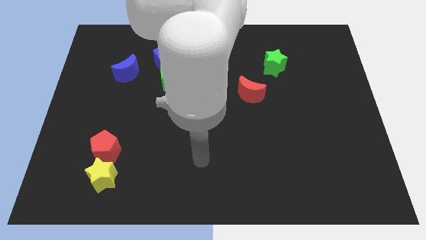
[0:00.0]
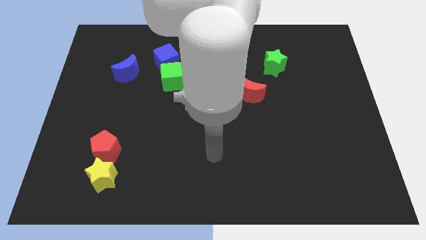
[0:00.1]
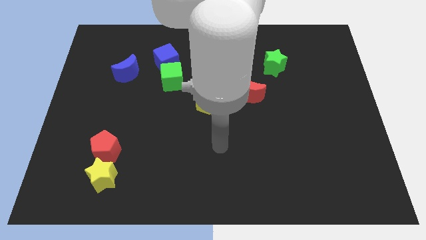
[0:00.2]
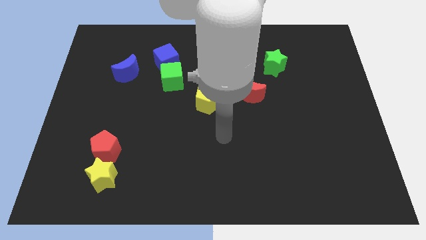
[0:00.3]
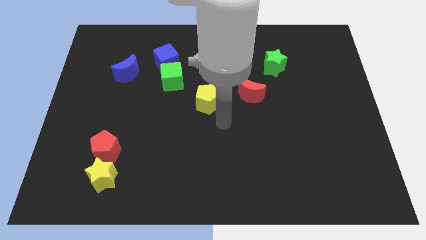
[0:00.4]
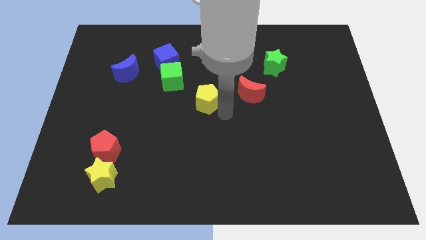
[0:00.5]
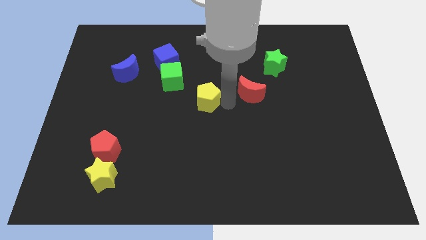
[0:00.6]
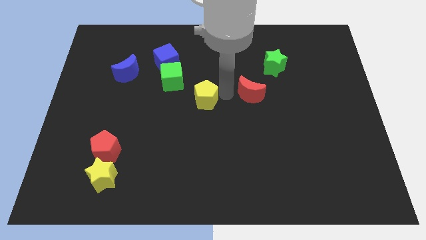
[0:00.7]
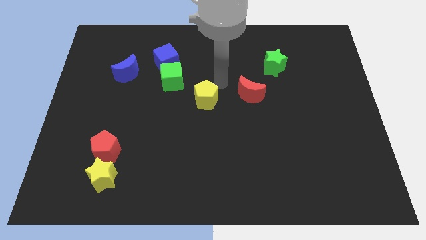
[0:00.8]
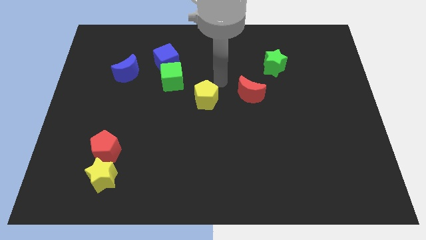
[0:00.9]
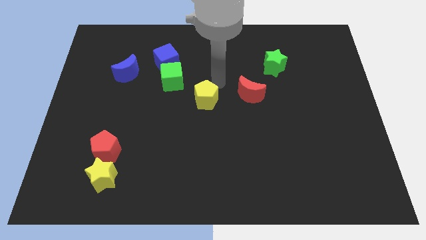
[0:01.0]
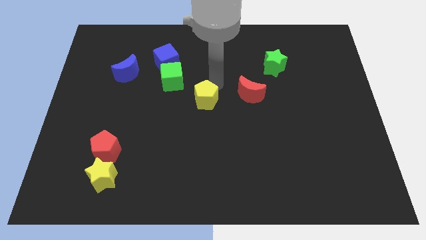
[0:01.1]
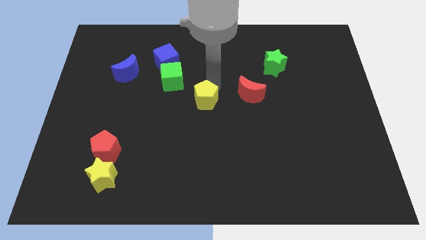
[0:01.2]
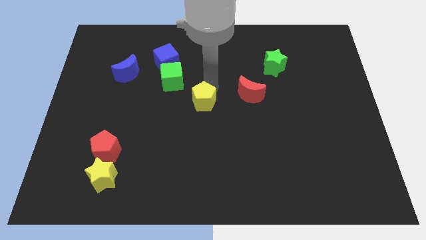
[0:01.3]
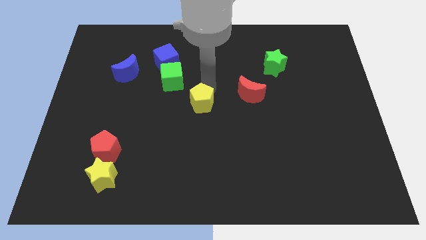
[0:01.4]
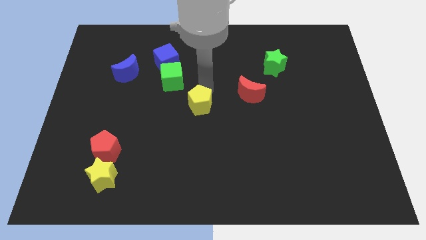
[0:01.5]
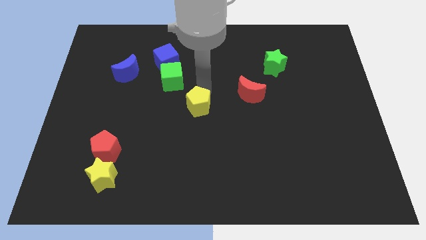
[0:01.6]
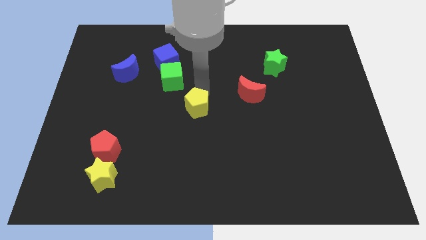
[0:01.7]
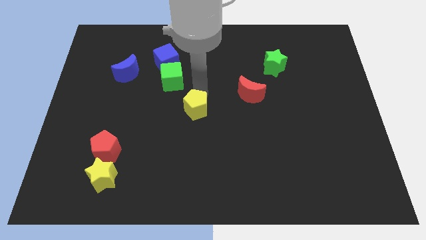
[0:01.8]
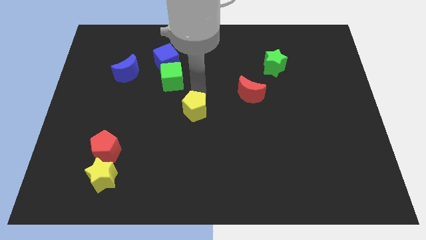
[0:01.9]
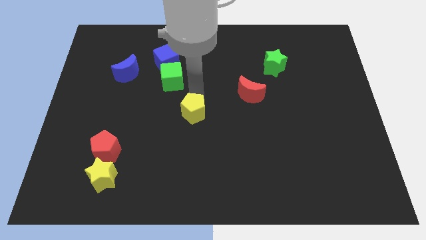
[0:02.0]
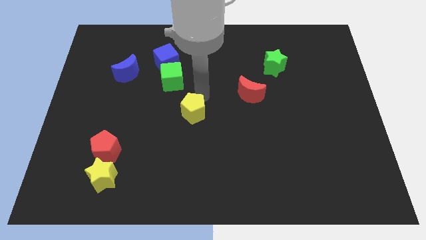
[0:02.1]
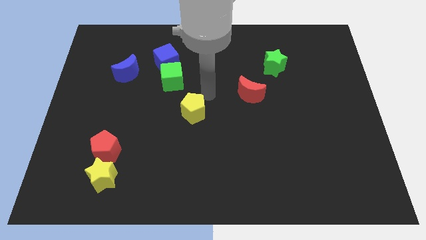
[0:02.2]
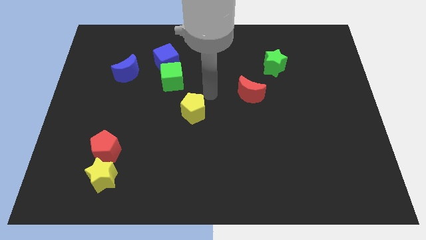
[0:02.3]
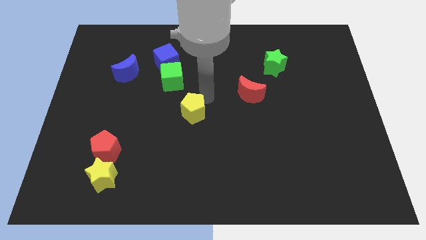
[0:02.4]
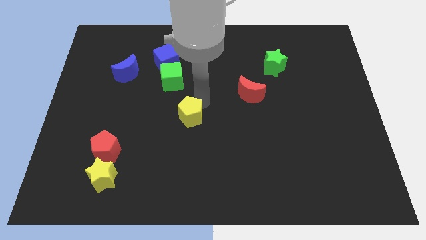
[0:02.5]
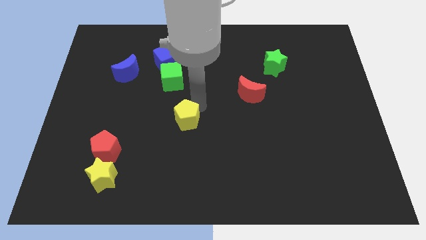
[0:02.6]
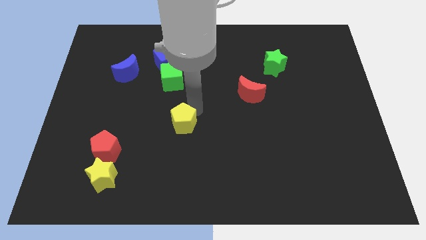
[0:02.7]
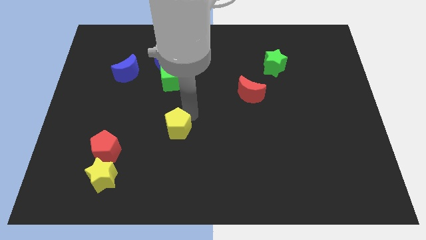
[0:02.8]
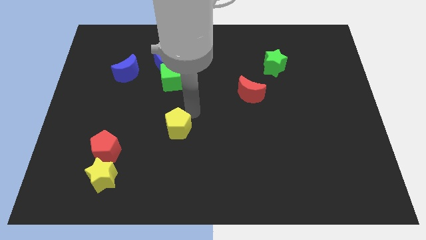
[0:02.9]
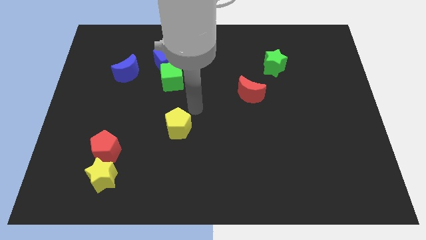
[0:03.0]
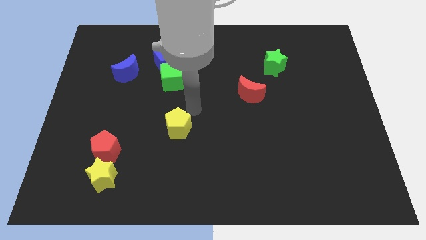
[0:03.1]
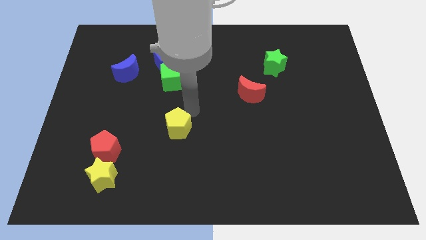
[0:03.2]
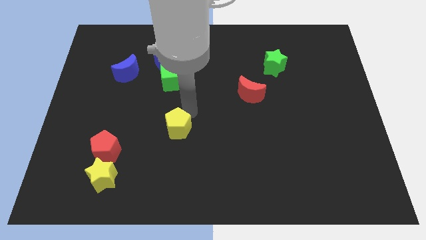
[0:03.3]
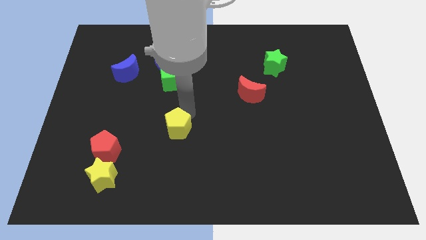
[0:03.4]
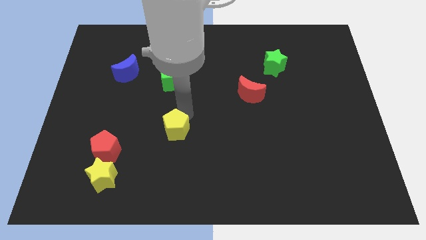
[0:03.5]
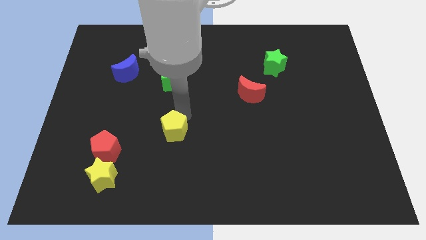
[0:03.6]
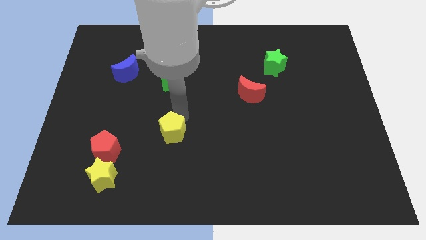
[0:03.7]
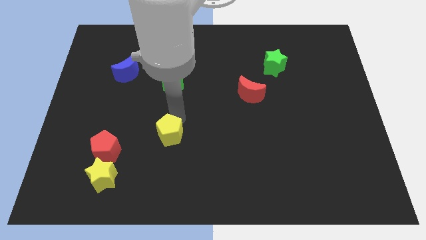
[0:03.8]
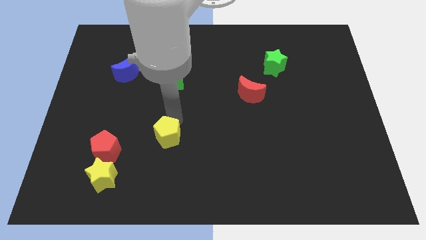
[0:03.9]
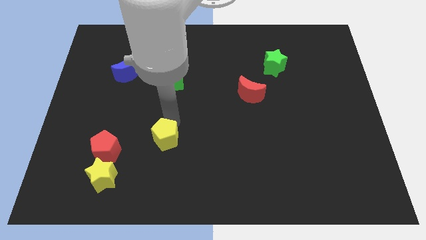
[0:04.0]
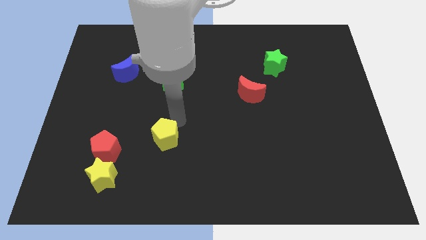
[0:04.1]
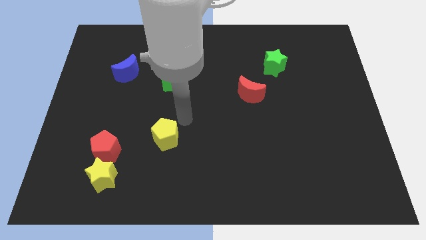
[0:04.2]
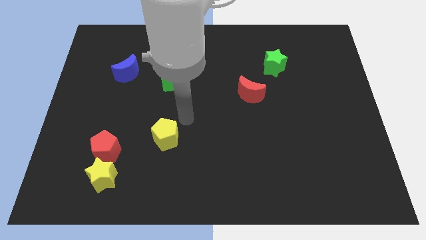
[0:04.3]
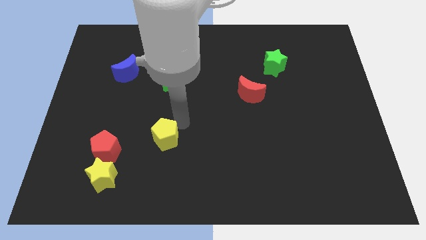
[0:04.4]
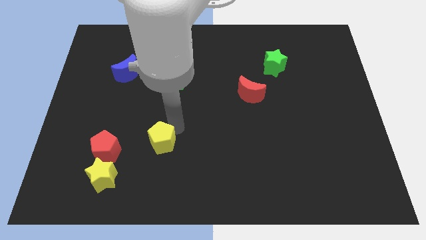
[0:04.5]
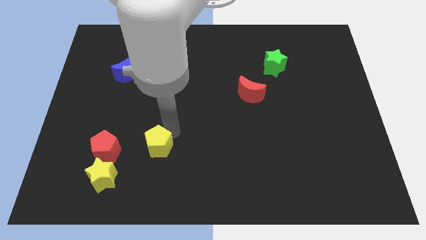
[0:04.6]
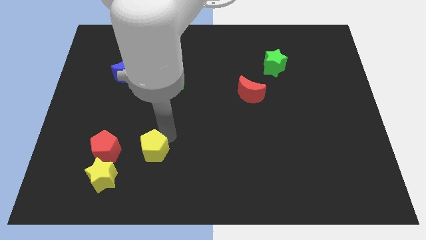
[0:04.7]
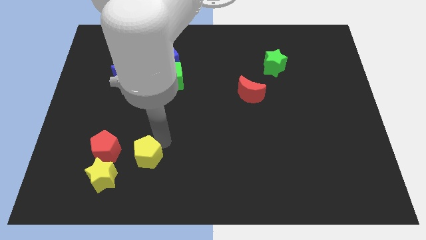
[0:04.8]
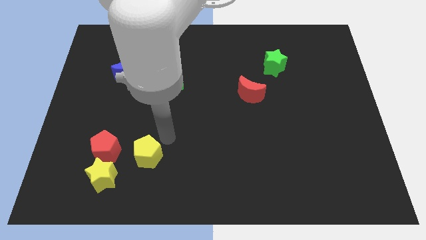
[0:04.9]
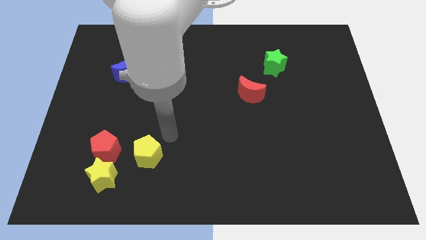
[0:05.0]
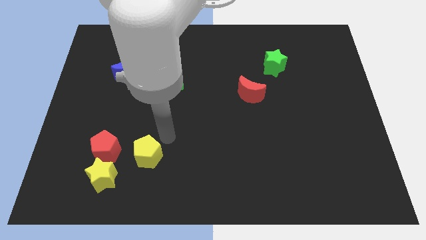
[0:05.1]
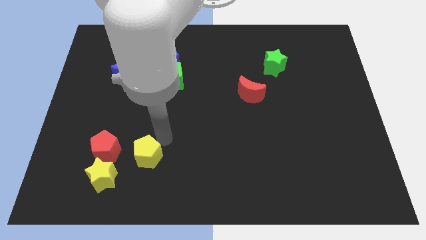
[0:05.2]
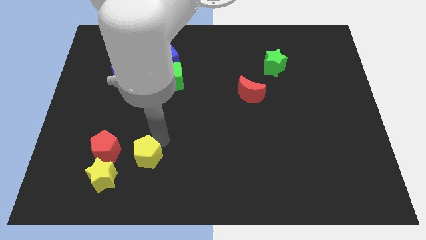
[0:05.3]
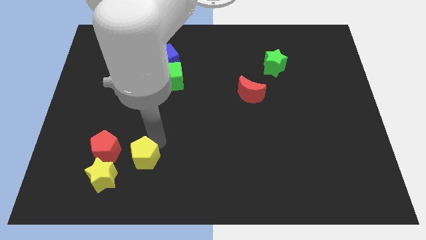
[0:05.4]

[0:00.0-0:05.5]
put the yellow pentagon to the bottom right of the red pentagon

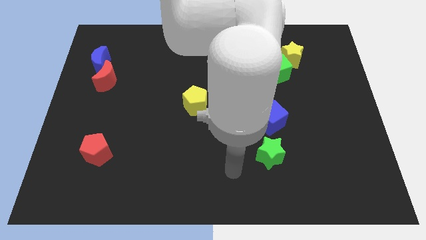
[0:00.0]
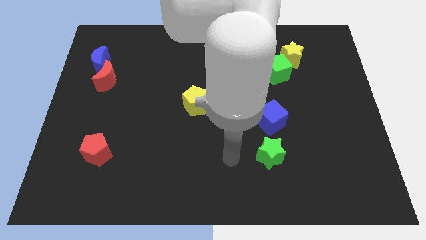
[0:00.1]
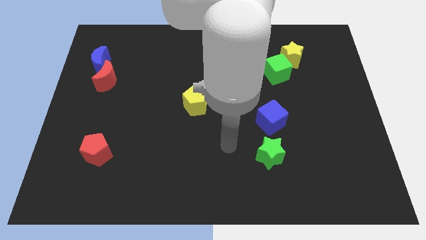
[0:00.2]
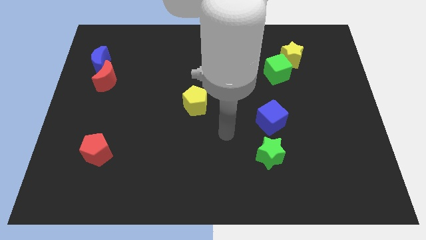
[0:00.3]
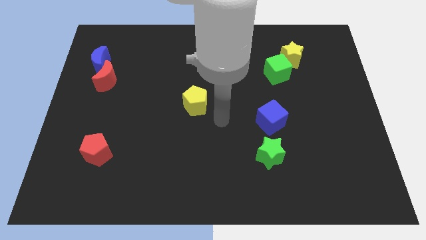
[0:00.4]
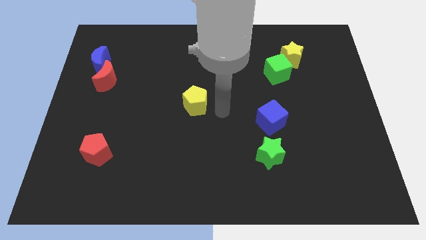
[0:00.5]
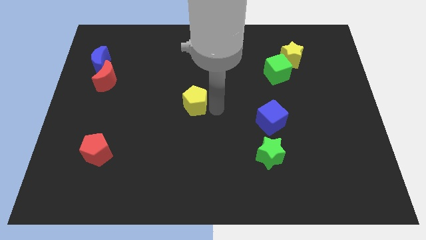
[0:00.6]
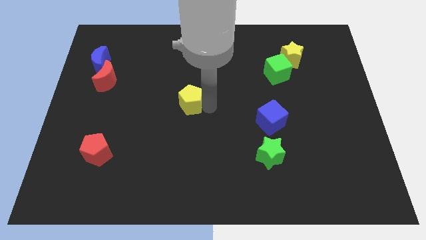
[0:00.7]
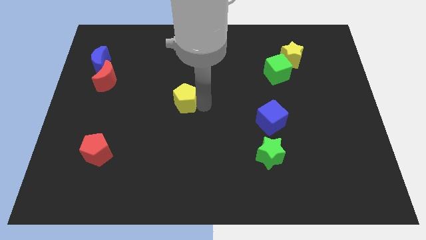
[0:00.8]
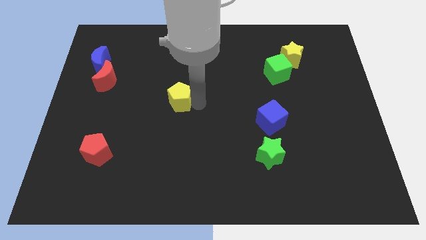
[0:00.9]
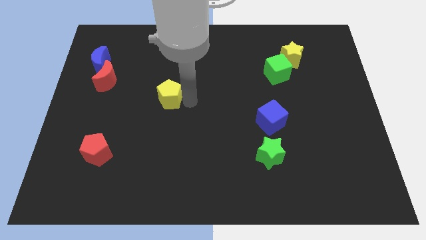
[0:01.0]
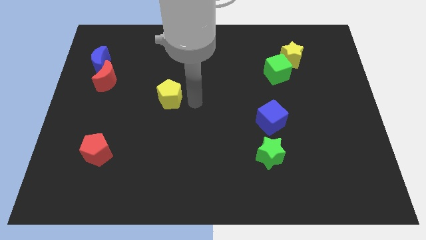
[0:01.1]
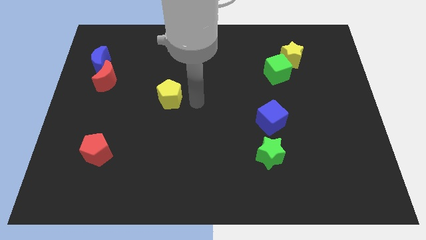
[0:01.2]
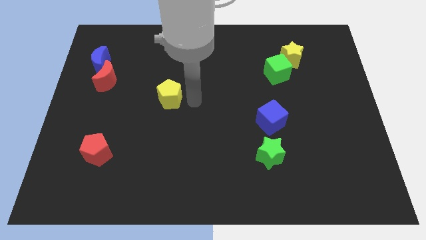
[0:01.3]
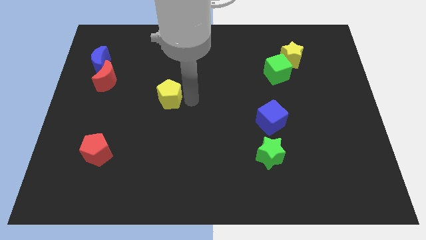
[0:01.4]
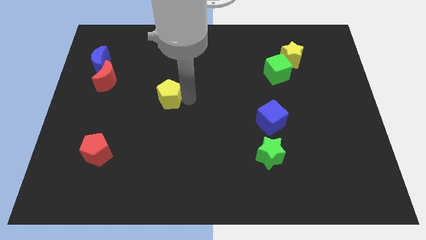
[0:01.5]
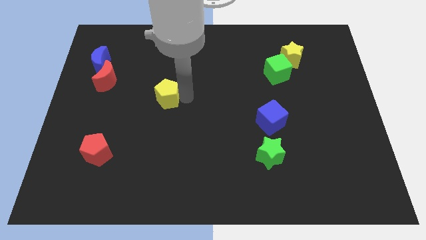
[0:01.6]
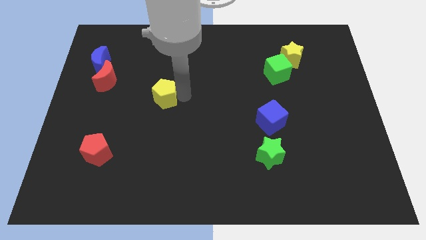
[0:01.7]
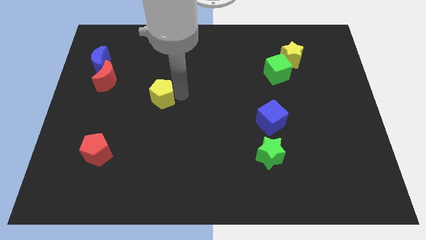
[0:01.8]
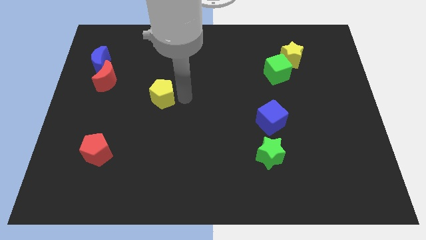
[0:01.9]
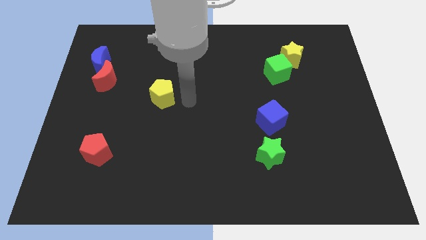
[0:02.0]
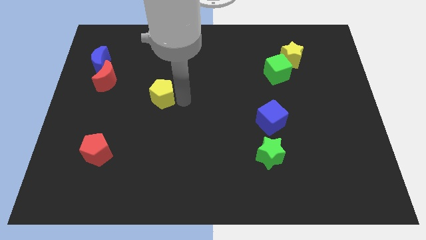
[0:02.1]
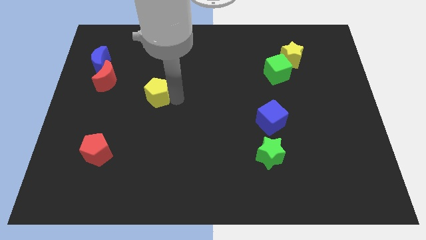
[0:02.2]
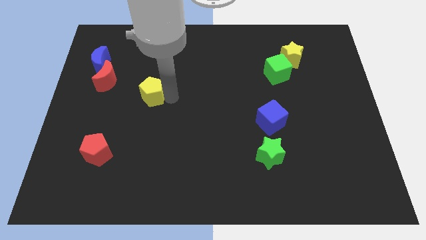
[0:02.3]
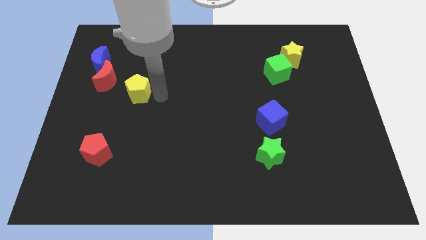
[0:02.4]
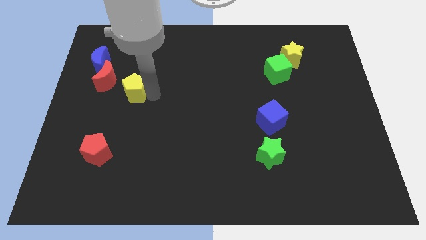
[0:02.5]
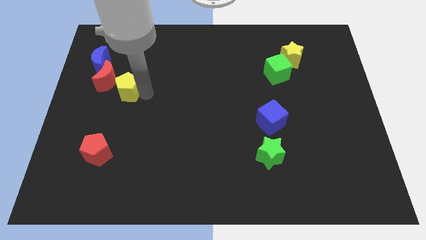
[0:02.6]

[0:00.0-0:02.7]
push the yellow pentagon diagonally down and to the right of the blue moon
